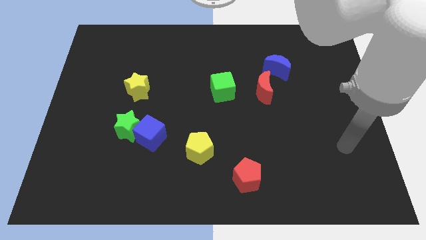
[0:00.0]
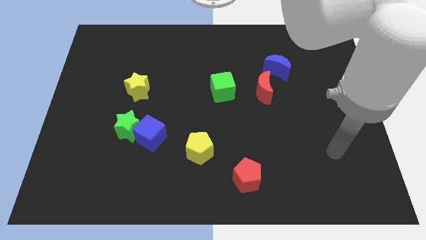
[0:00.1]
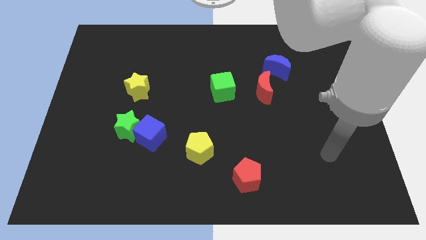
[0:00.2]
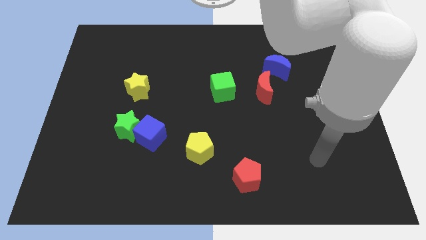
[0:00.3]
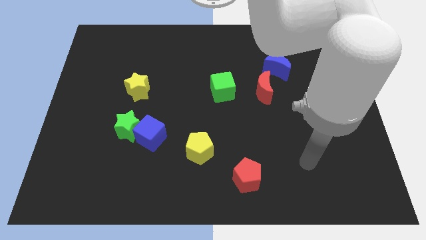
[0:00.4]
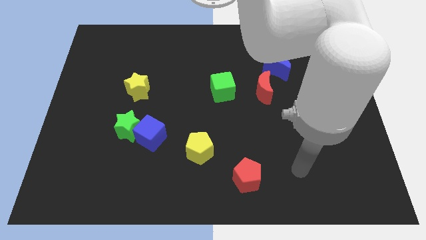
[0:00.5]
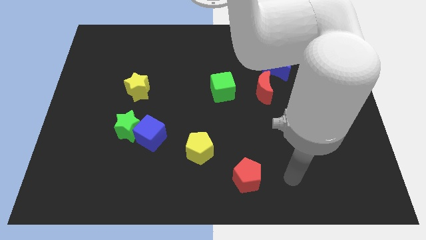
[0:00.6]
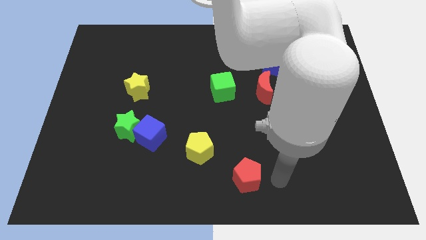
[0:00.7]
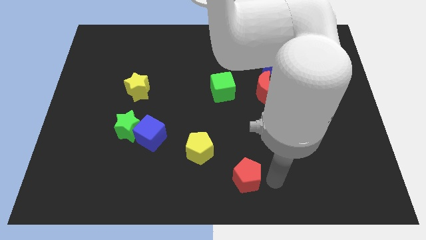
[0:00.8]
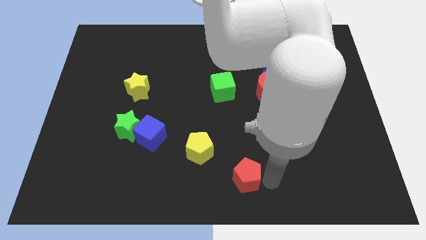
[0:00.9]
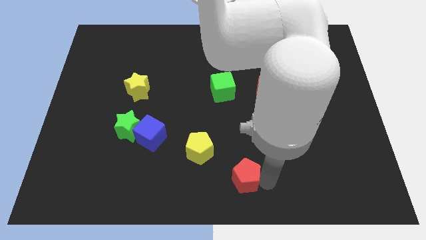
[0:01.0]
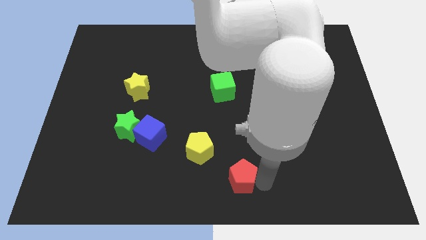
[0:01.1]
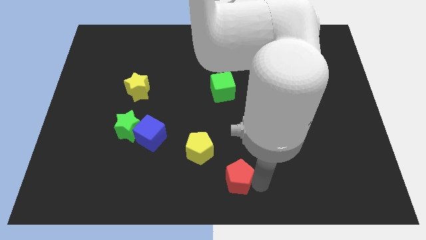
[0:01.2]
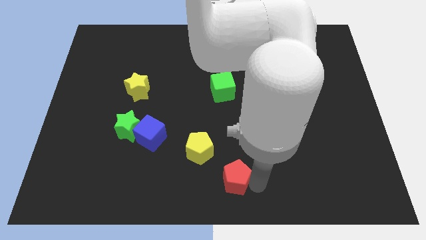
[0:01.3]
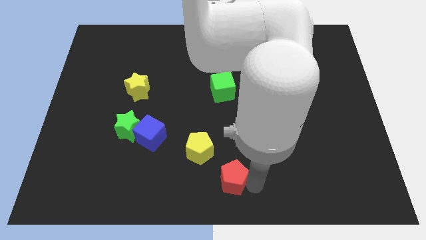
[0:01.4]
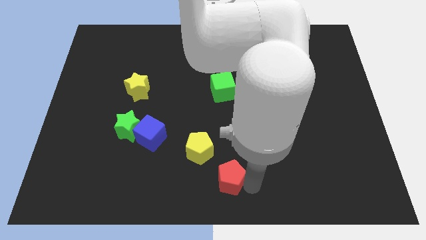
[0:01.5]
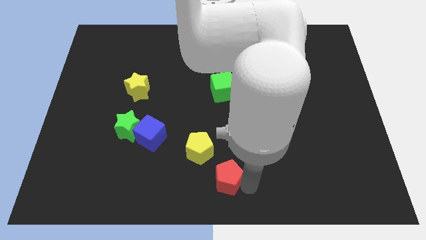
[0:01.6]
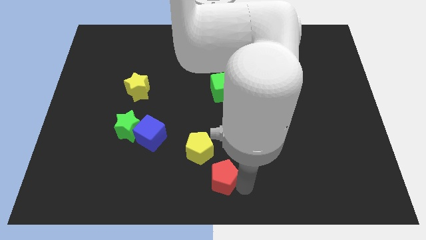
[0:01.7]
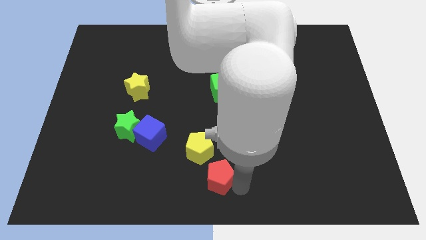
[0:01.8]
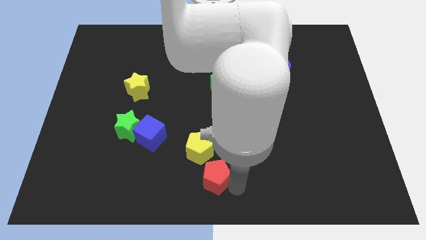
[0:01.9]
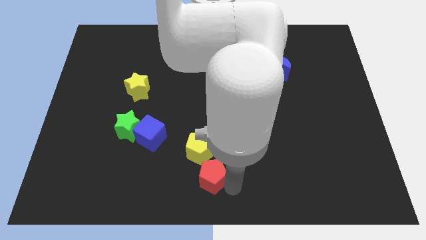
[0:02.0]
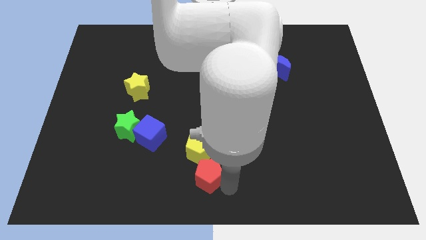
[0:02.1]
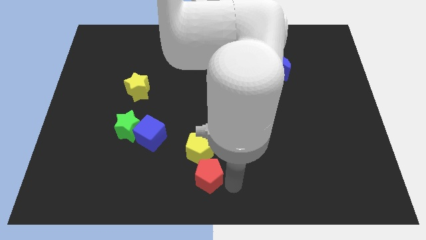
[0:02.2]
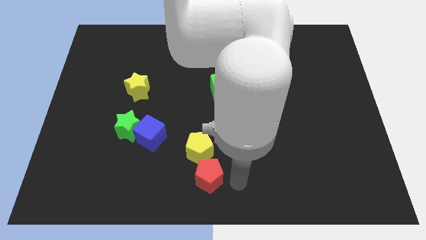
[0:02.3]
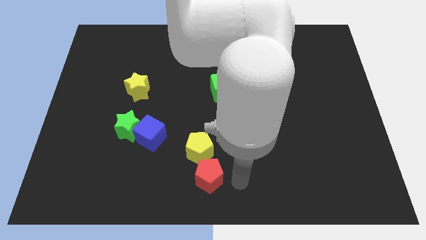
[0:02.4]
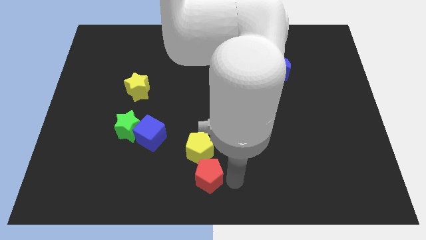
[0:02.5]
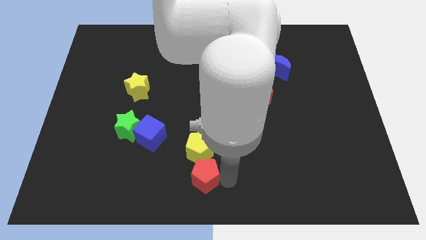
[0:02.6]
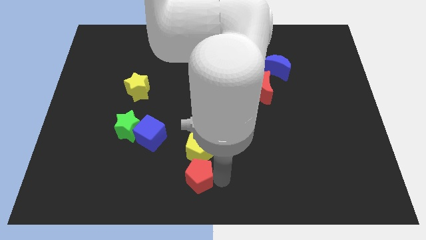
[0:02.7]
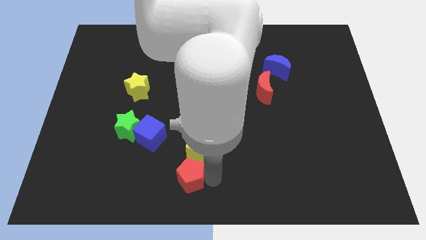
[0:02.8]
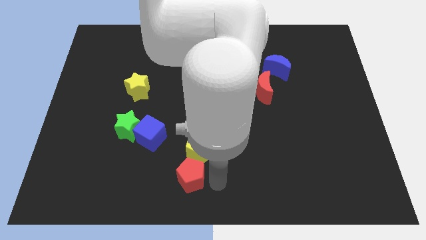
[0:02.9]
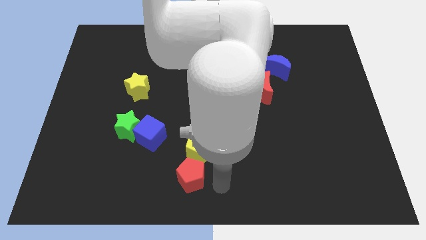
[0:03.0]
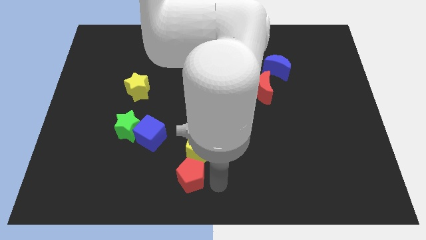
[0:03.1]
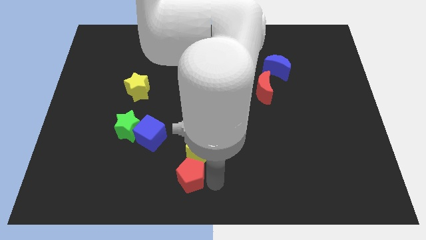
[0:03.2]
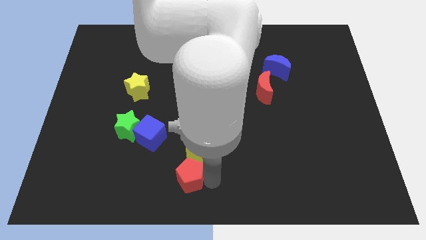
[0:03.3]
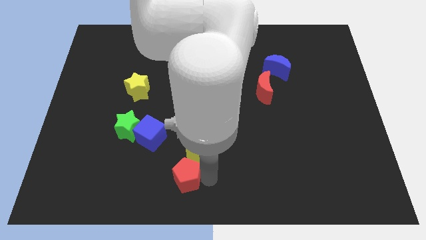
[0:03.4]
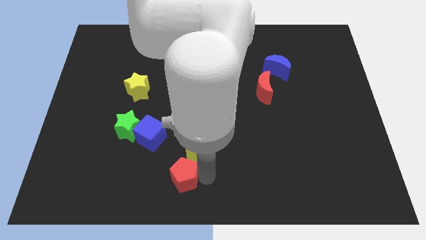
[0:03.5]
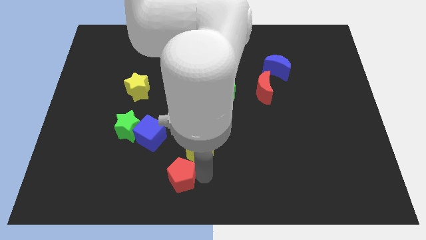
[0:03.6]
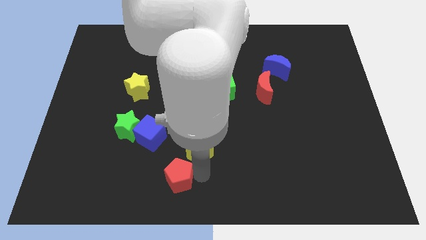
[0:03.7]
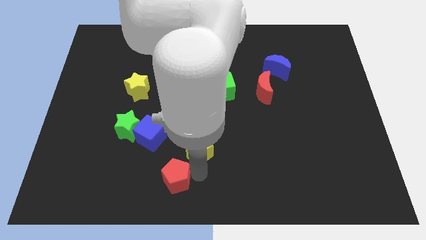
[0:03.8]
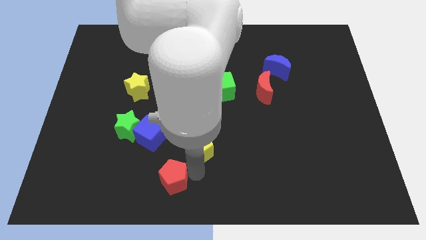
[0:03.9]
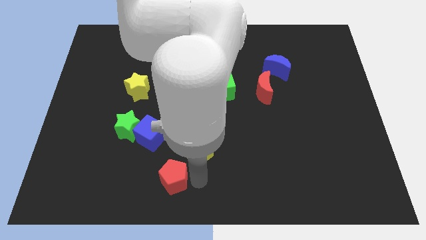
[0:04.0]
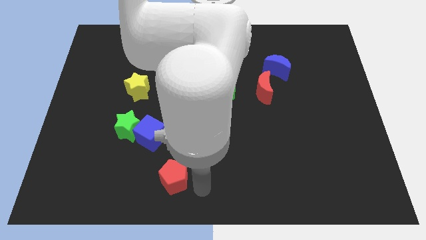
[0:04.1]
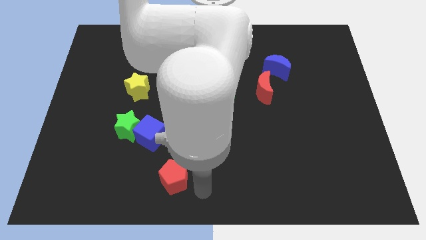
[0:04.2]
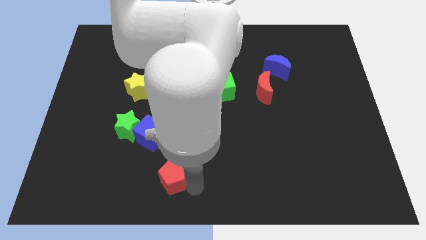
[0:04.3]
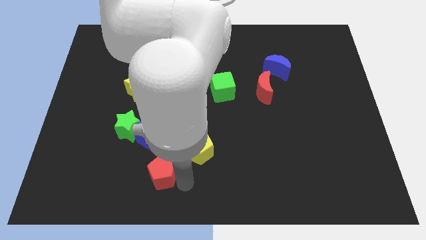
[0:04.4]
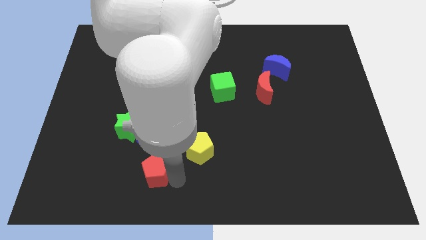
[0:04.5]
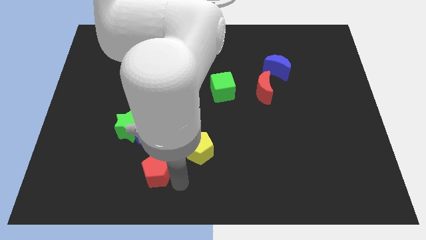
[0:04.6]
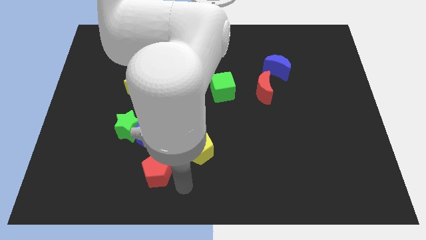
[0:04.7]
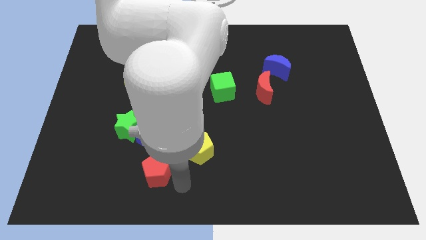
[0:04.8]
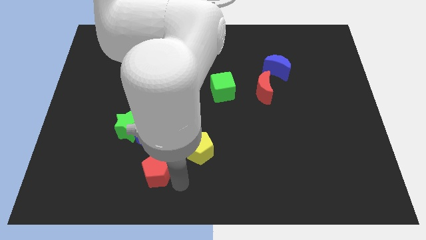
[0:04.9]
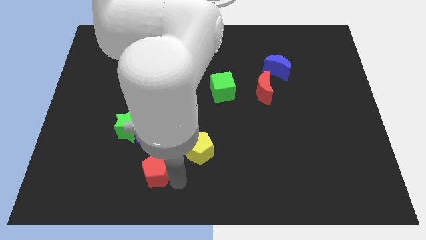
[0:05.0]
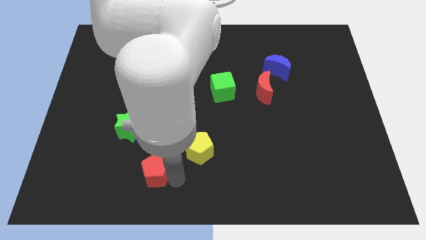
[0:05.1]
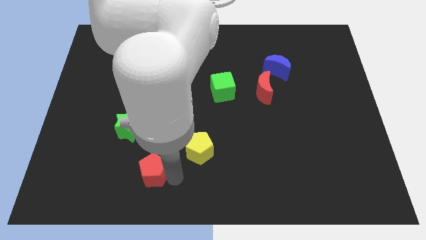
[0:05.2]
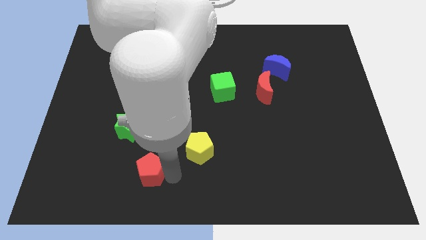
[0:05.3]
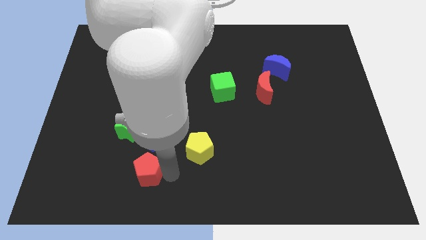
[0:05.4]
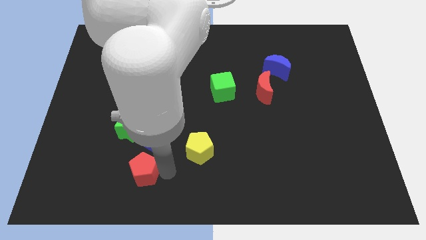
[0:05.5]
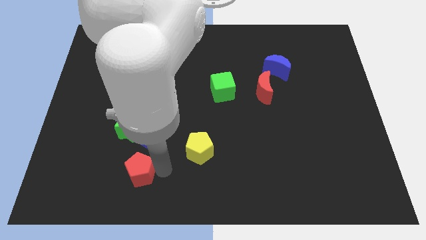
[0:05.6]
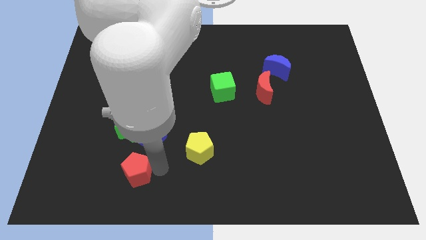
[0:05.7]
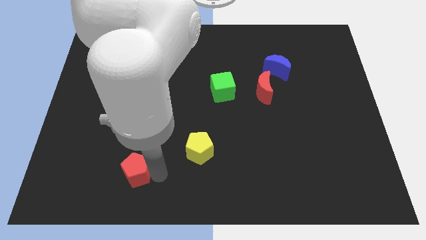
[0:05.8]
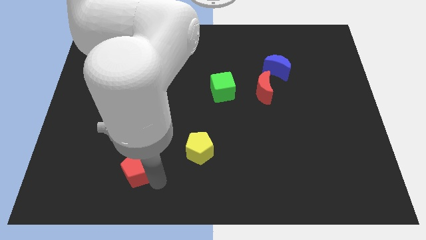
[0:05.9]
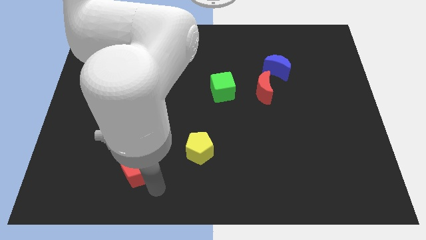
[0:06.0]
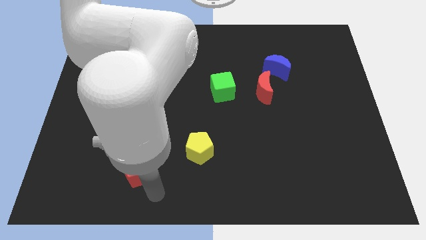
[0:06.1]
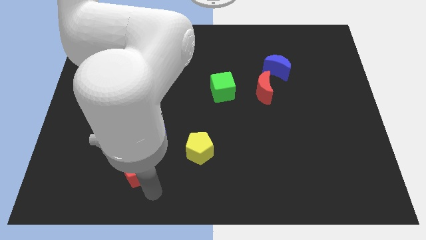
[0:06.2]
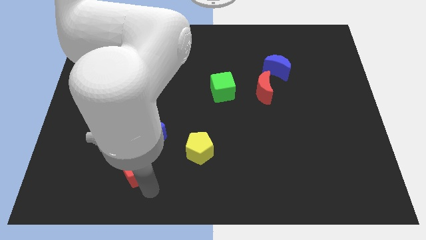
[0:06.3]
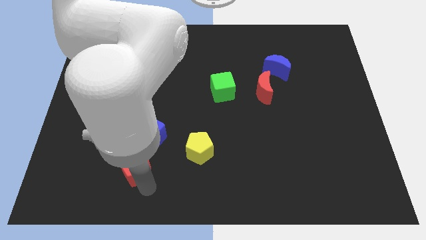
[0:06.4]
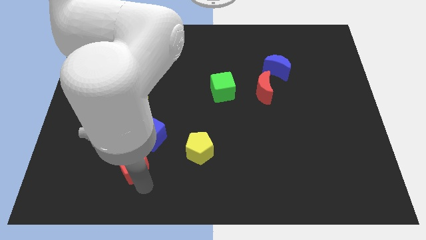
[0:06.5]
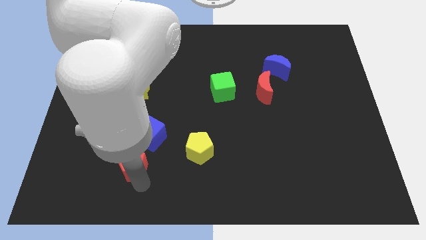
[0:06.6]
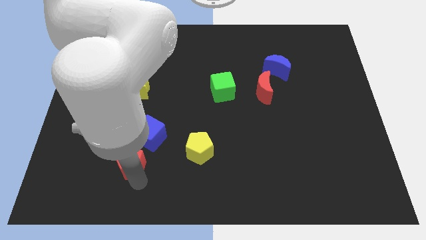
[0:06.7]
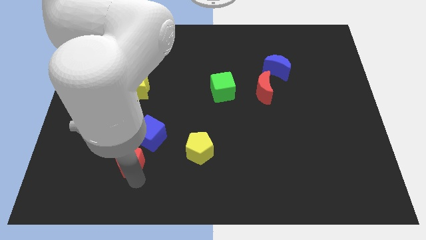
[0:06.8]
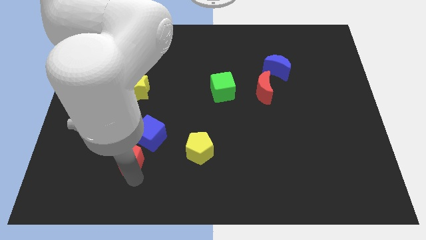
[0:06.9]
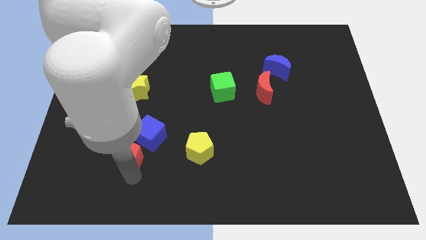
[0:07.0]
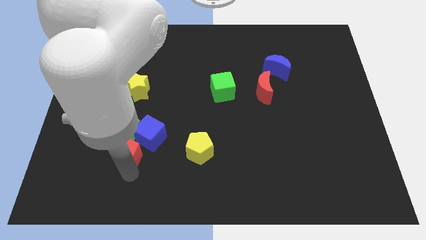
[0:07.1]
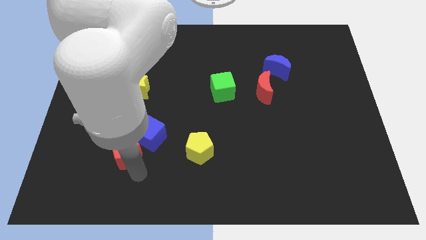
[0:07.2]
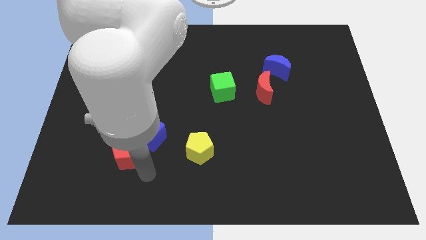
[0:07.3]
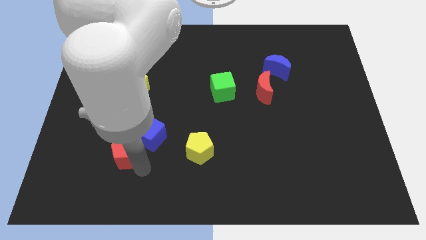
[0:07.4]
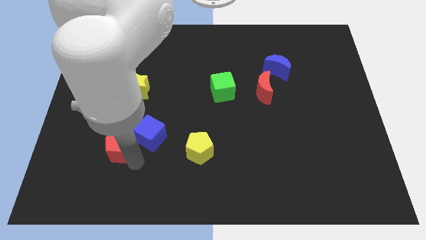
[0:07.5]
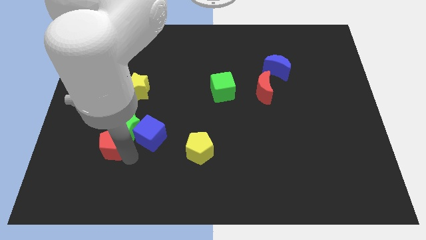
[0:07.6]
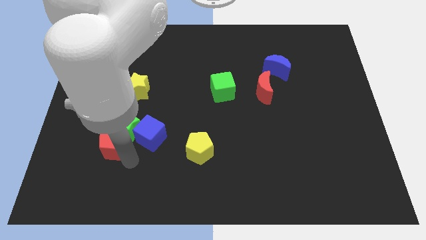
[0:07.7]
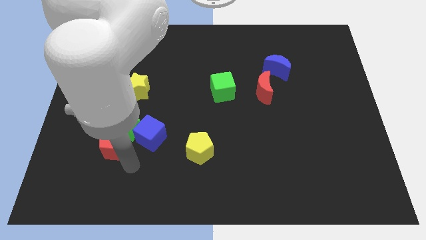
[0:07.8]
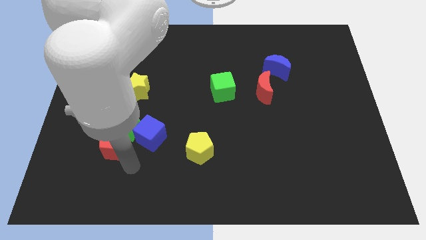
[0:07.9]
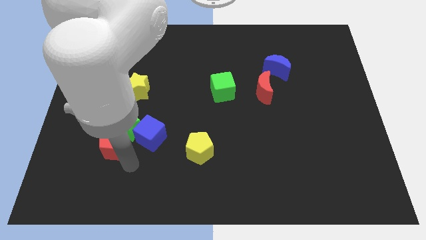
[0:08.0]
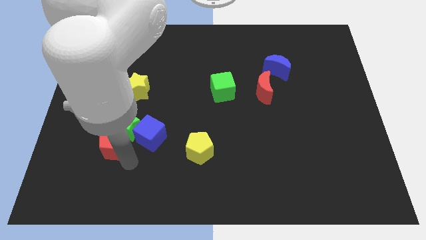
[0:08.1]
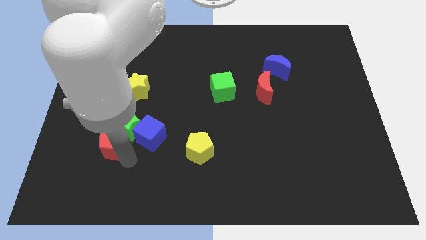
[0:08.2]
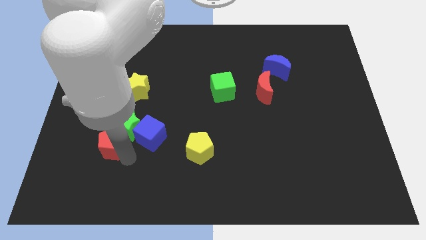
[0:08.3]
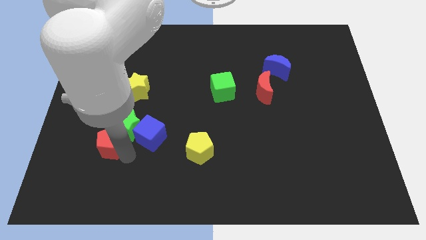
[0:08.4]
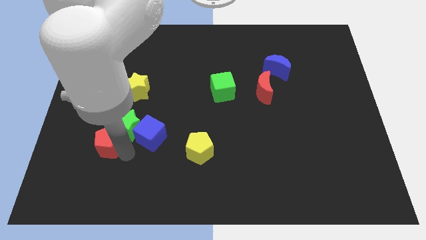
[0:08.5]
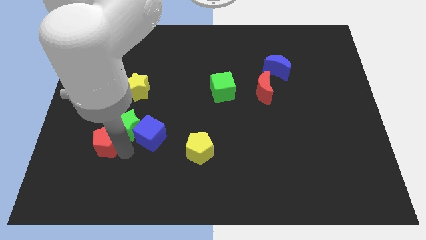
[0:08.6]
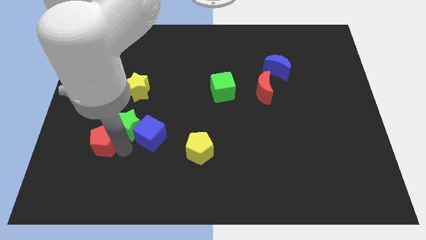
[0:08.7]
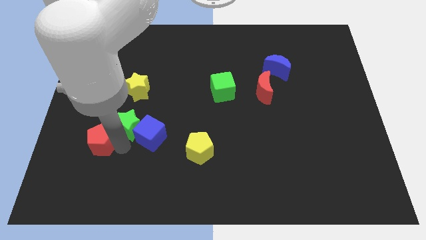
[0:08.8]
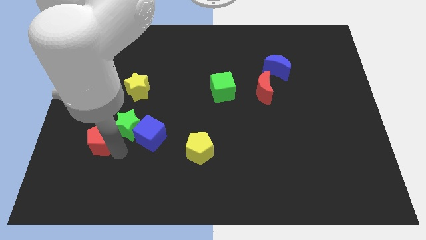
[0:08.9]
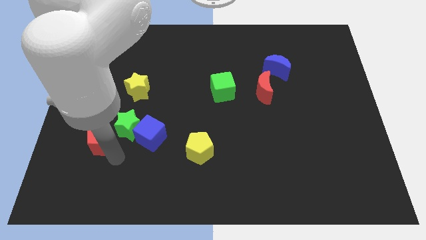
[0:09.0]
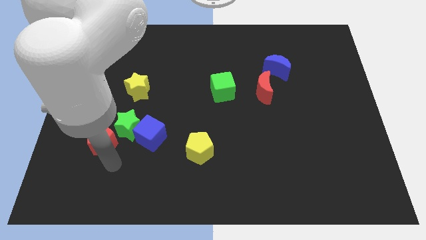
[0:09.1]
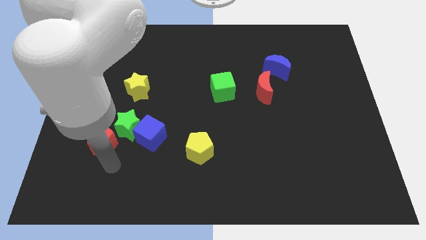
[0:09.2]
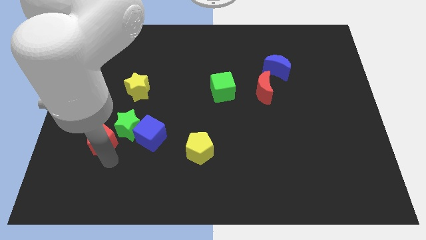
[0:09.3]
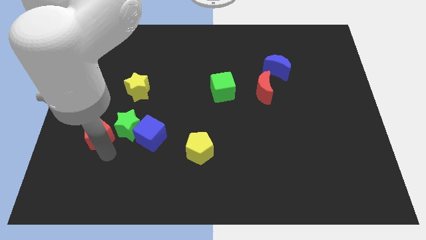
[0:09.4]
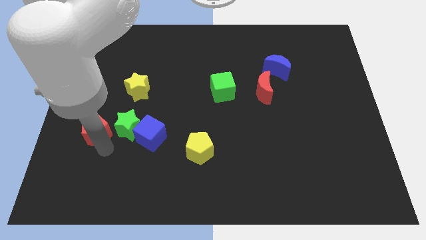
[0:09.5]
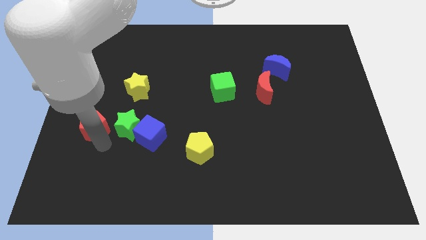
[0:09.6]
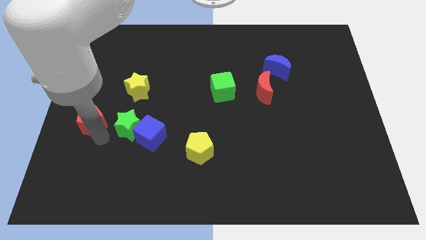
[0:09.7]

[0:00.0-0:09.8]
push the red pentagon to the left side of the board
